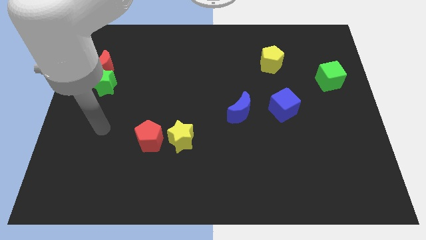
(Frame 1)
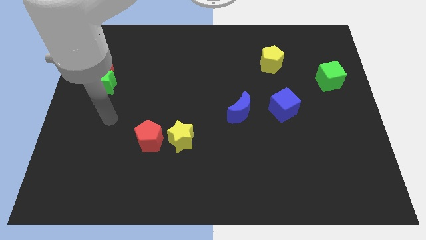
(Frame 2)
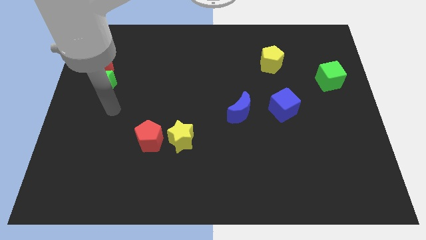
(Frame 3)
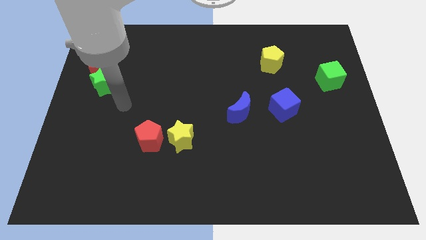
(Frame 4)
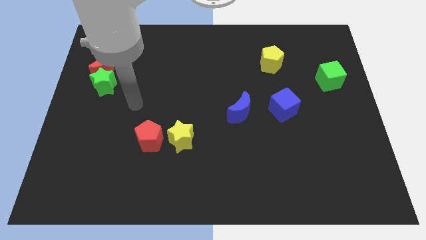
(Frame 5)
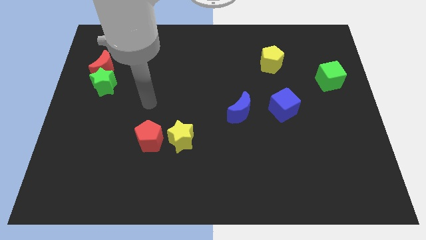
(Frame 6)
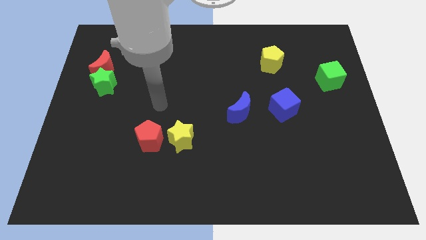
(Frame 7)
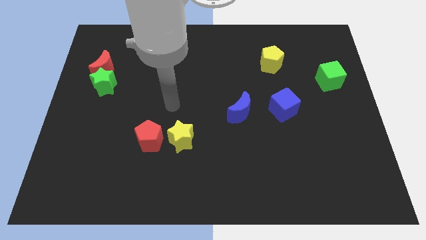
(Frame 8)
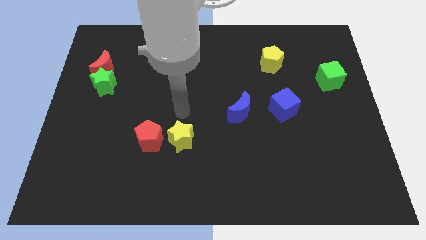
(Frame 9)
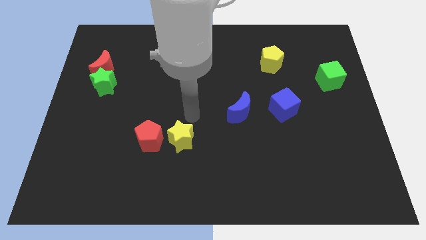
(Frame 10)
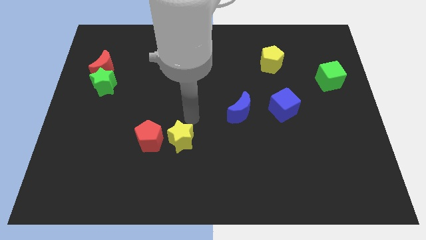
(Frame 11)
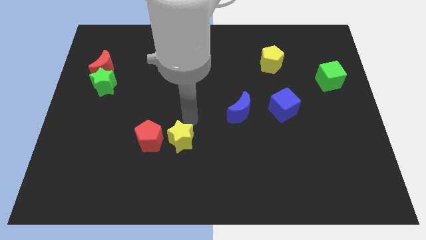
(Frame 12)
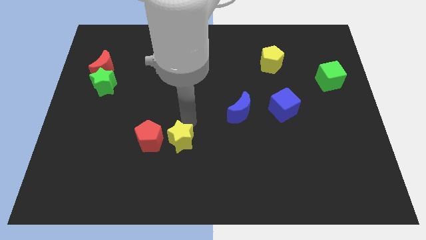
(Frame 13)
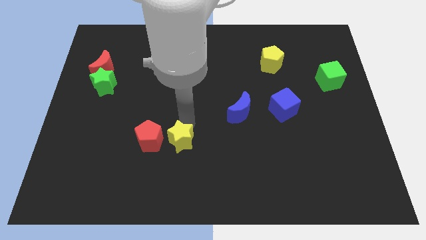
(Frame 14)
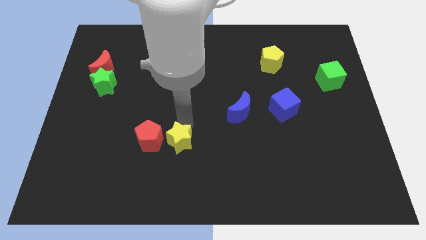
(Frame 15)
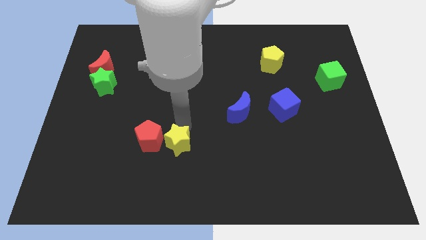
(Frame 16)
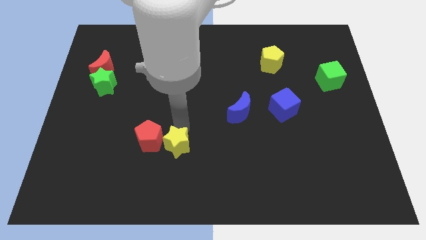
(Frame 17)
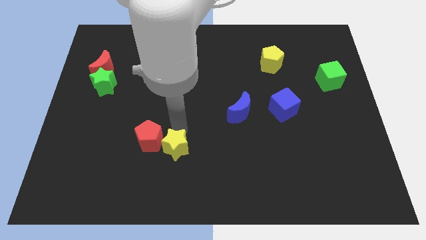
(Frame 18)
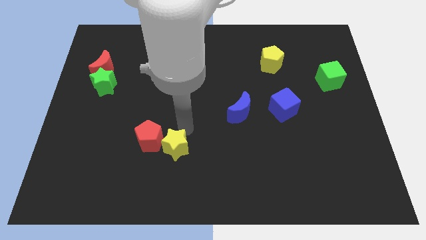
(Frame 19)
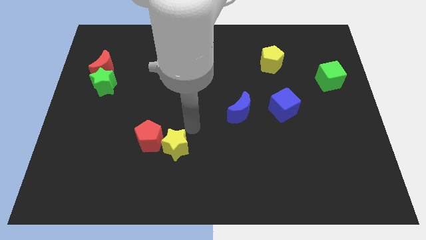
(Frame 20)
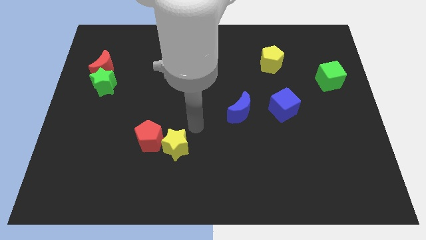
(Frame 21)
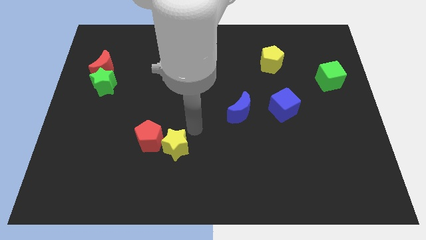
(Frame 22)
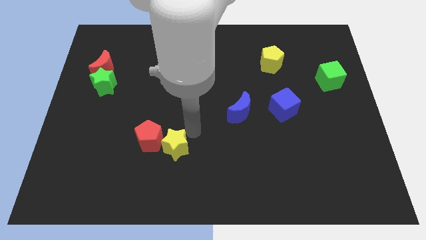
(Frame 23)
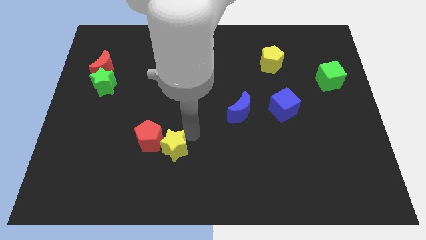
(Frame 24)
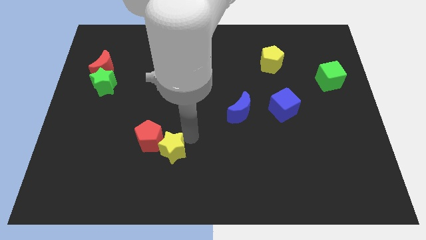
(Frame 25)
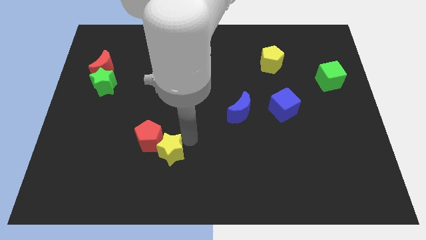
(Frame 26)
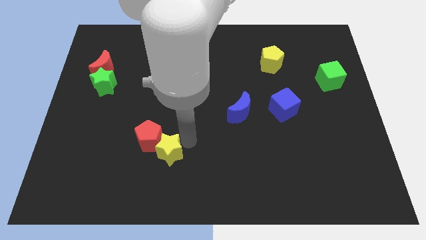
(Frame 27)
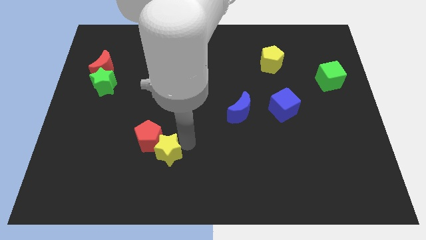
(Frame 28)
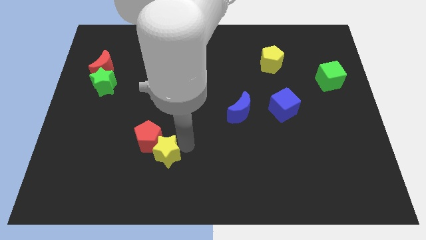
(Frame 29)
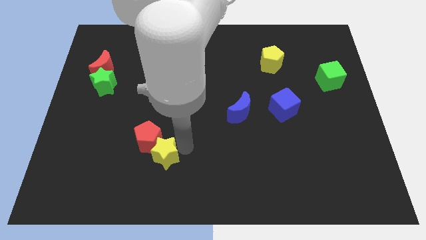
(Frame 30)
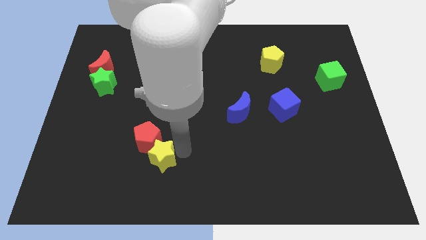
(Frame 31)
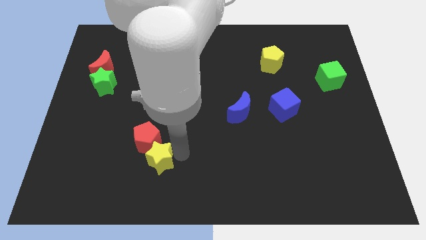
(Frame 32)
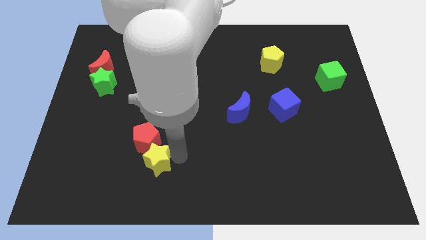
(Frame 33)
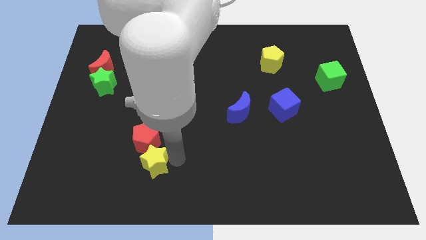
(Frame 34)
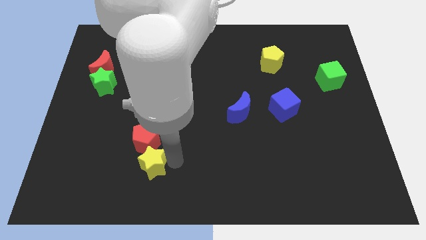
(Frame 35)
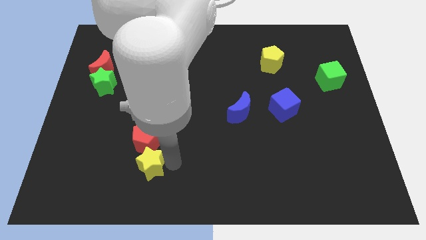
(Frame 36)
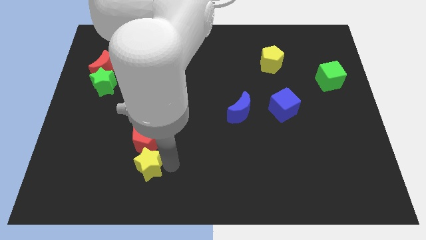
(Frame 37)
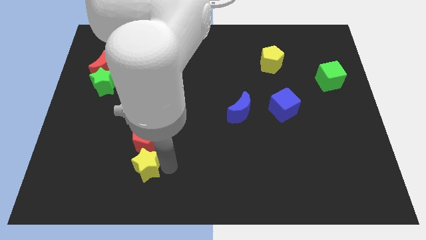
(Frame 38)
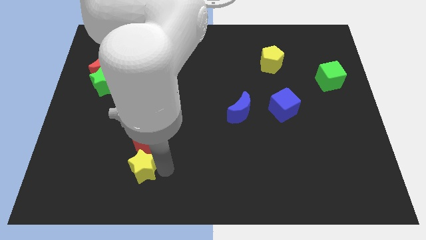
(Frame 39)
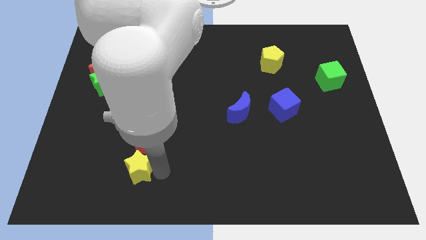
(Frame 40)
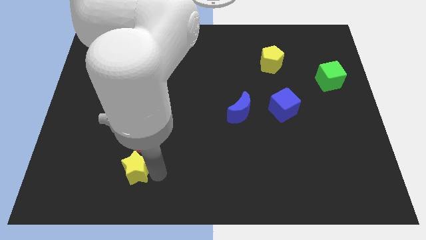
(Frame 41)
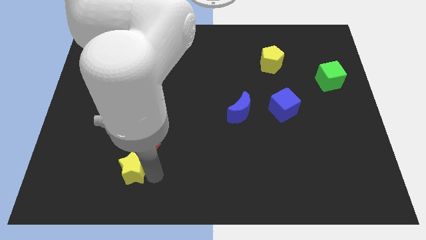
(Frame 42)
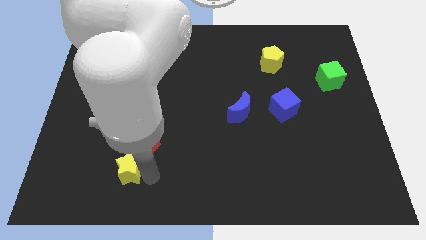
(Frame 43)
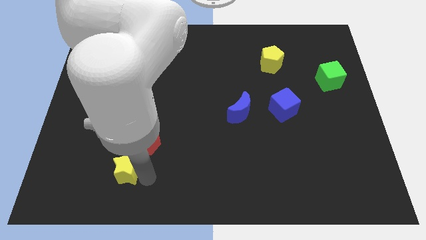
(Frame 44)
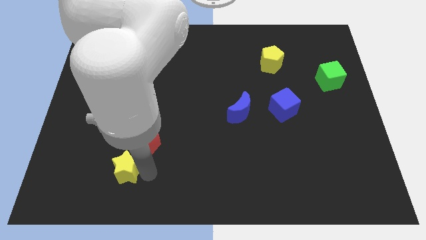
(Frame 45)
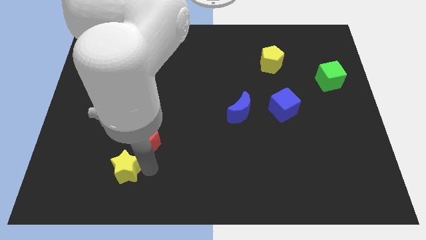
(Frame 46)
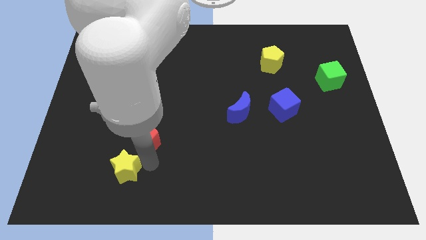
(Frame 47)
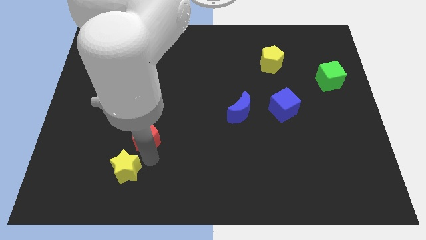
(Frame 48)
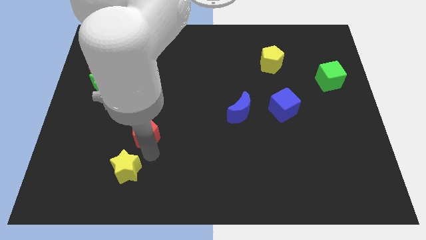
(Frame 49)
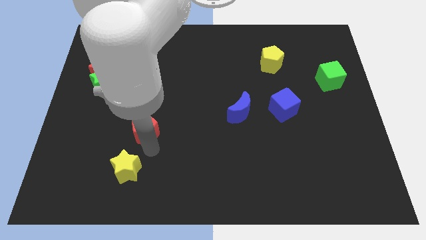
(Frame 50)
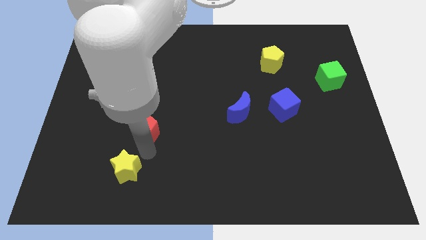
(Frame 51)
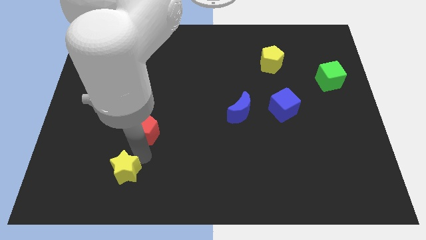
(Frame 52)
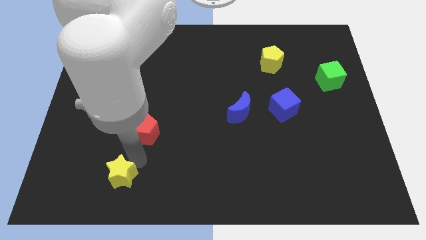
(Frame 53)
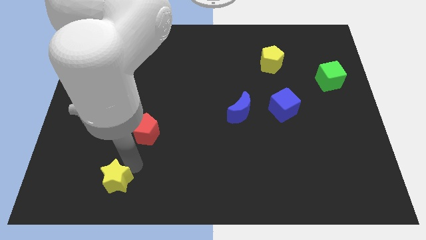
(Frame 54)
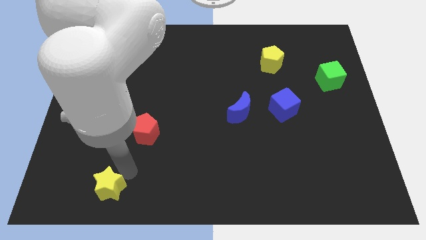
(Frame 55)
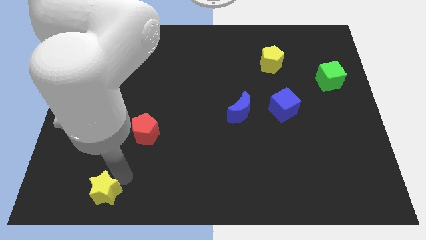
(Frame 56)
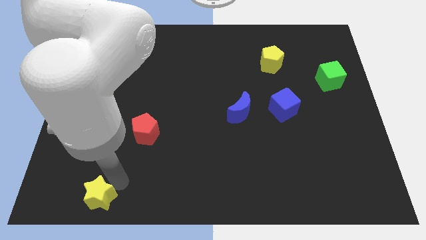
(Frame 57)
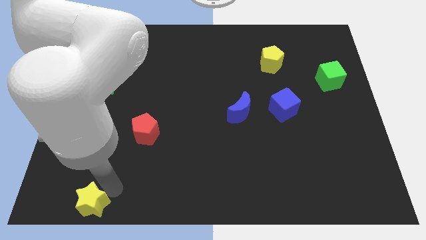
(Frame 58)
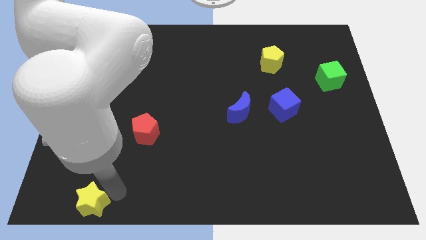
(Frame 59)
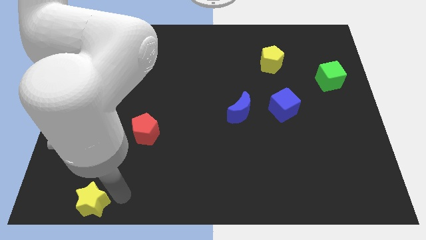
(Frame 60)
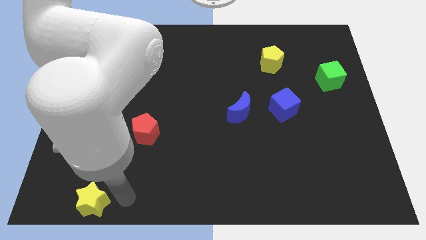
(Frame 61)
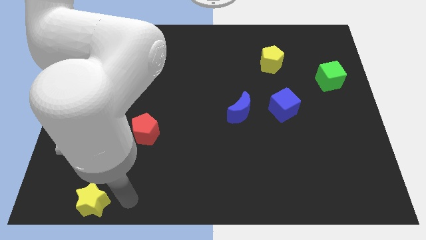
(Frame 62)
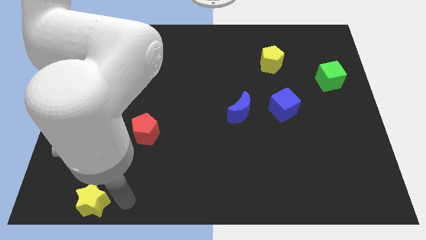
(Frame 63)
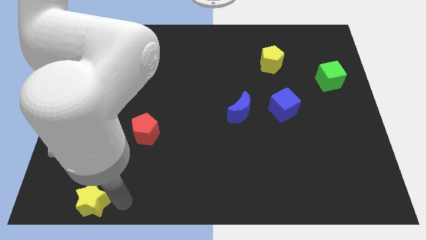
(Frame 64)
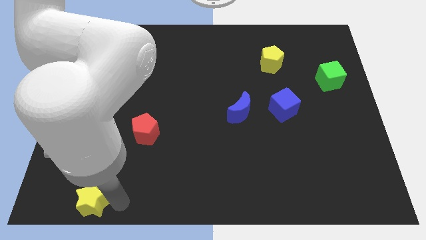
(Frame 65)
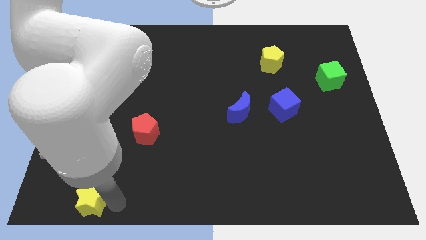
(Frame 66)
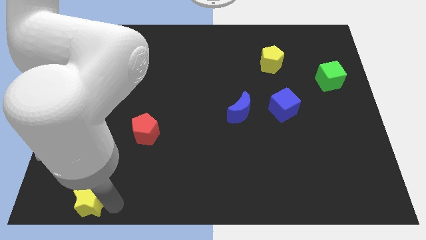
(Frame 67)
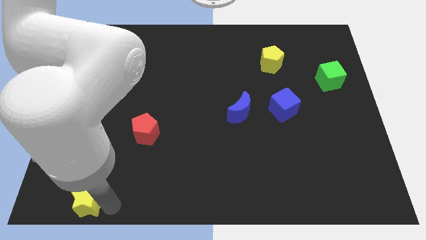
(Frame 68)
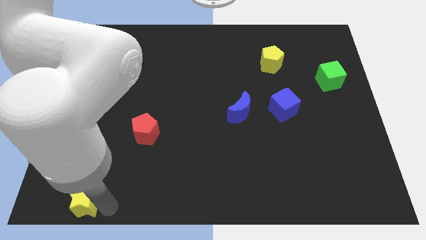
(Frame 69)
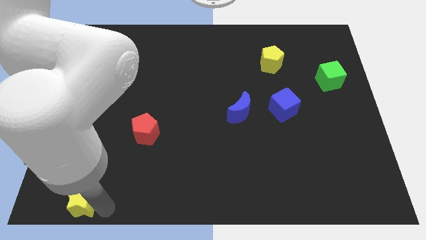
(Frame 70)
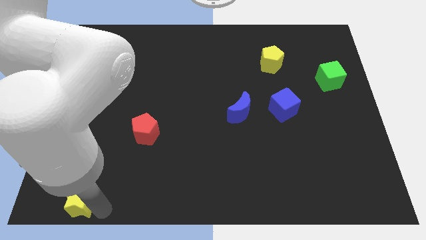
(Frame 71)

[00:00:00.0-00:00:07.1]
slide the yellow star to the lower left corner
